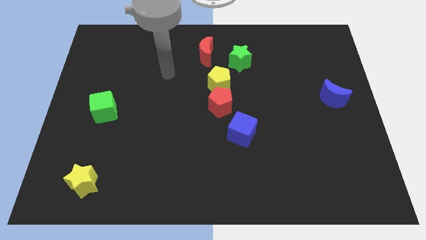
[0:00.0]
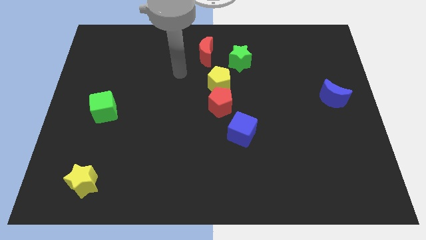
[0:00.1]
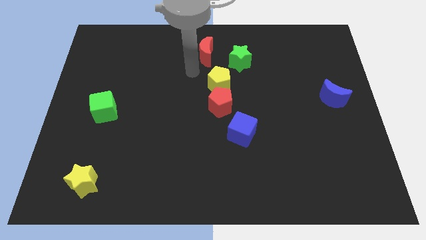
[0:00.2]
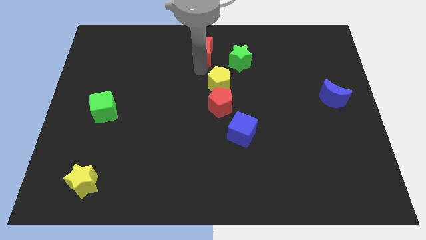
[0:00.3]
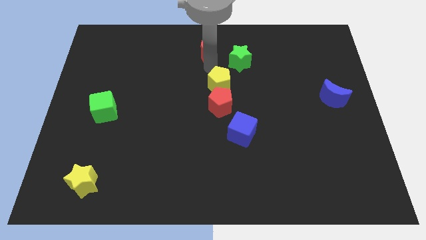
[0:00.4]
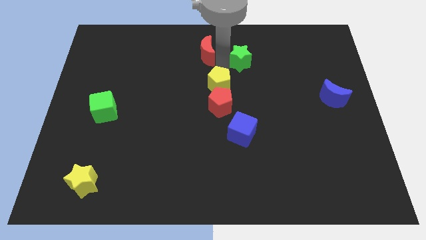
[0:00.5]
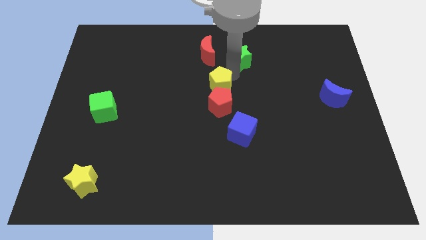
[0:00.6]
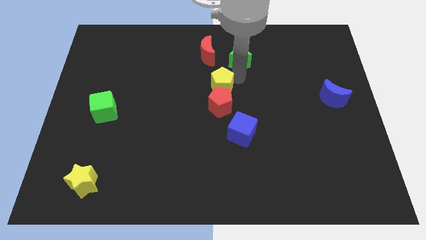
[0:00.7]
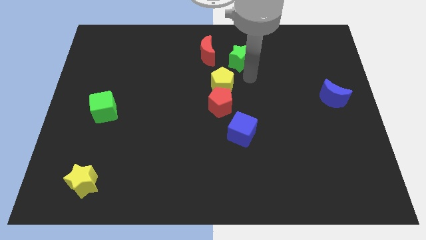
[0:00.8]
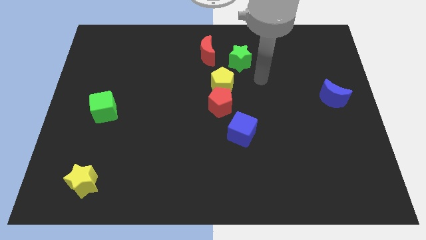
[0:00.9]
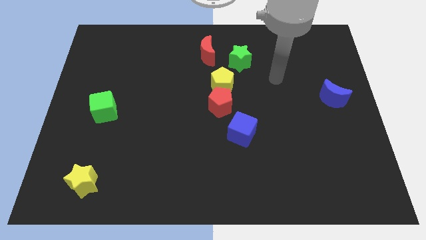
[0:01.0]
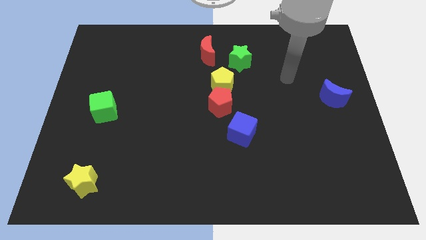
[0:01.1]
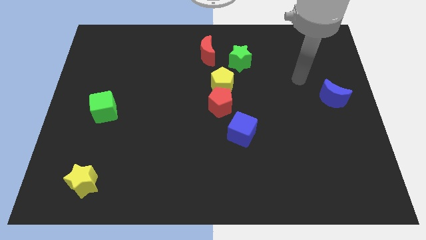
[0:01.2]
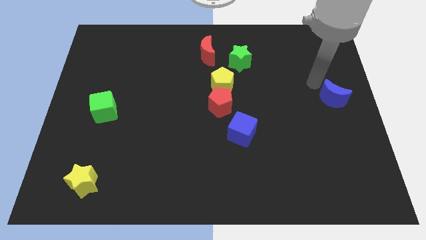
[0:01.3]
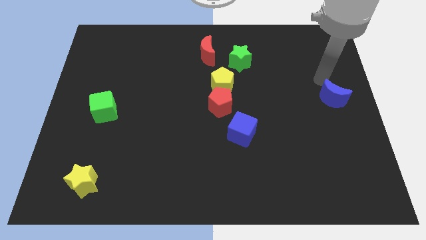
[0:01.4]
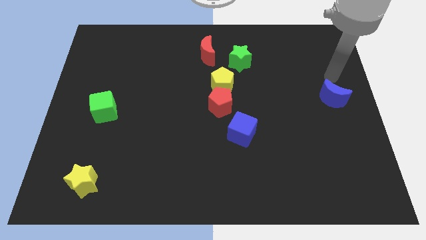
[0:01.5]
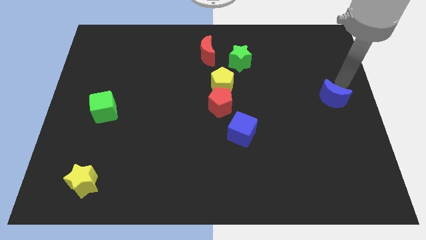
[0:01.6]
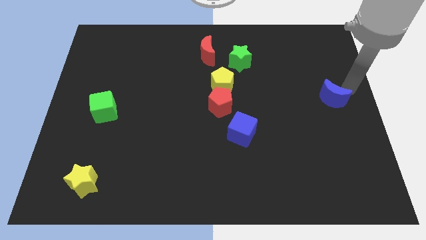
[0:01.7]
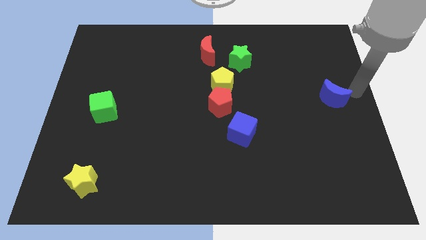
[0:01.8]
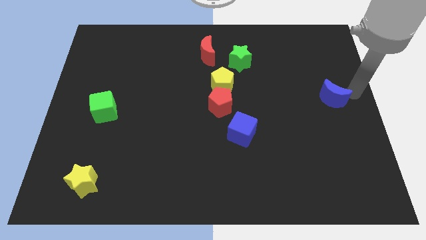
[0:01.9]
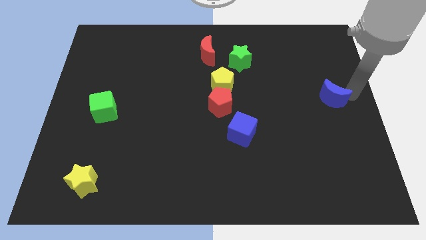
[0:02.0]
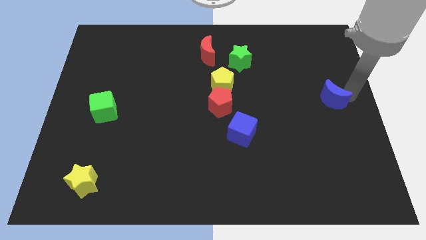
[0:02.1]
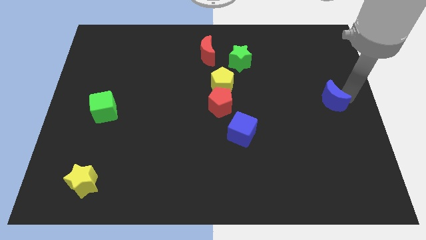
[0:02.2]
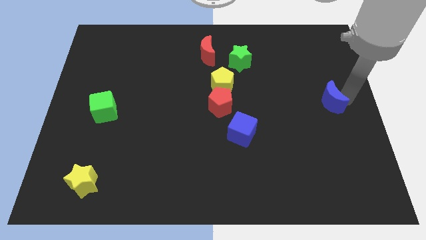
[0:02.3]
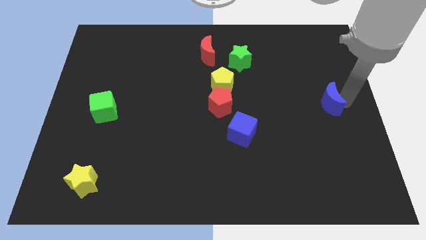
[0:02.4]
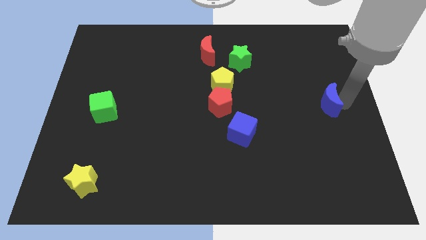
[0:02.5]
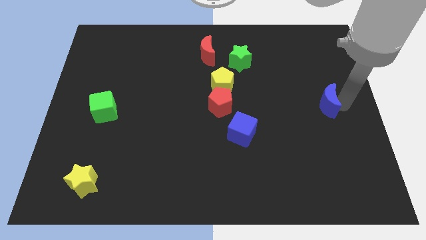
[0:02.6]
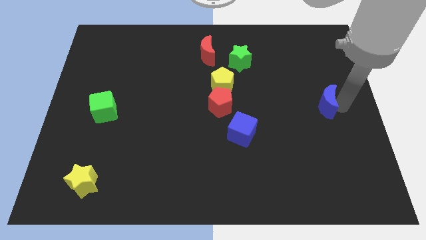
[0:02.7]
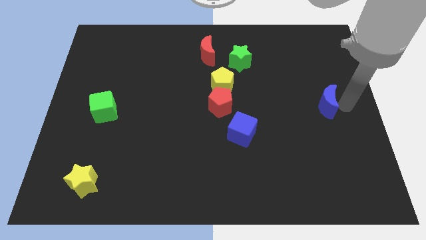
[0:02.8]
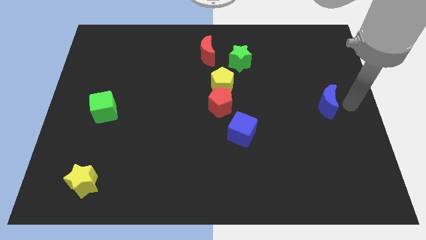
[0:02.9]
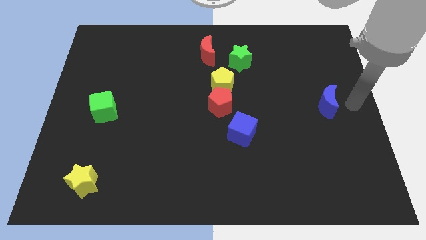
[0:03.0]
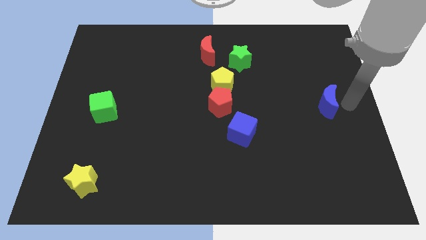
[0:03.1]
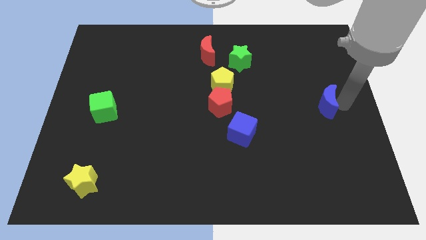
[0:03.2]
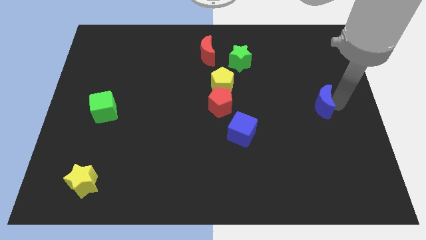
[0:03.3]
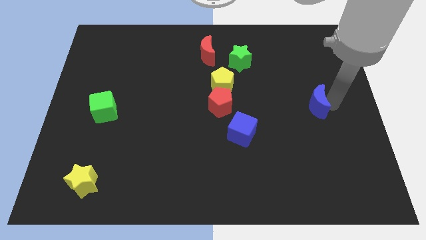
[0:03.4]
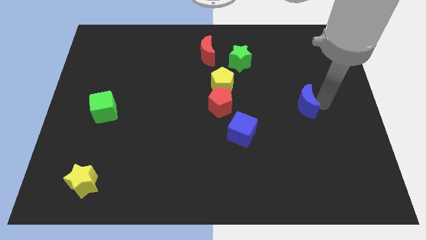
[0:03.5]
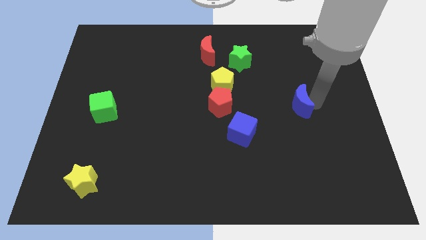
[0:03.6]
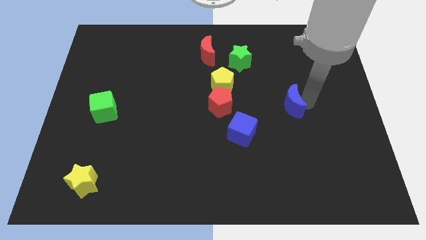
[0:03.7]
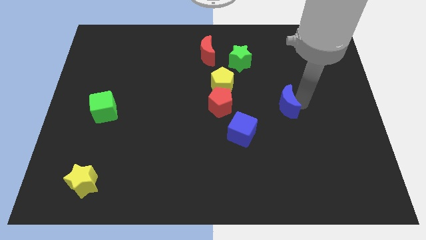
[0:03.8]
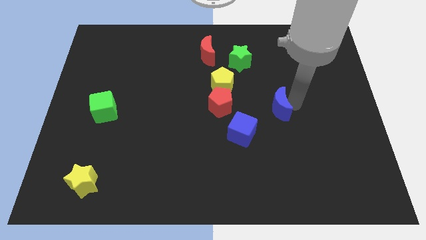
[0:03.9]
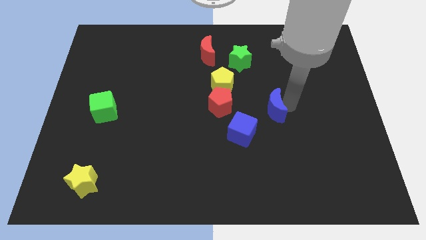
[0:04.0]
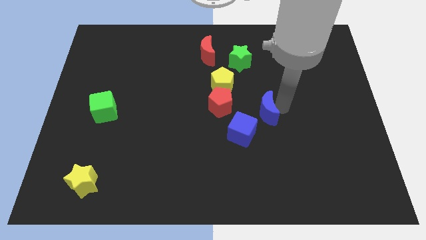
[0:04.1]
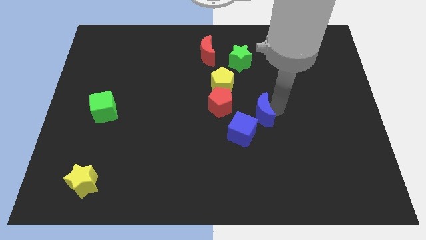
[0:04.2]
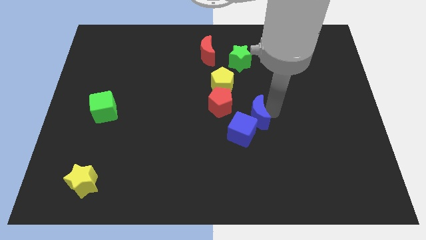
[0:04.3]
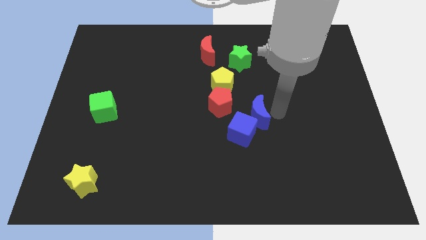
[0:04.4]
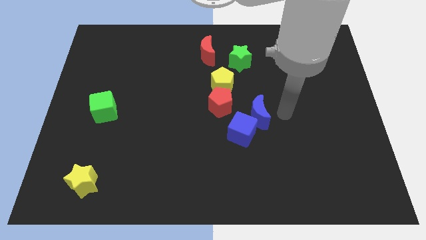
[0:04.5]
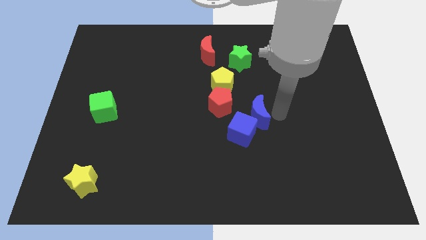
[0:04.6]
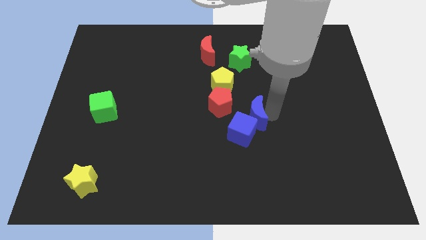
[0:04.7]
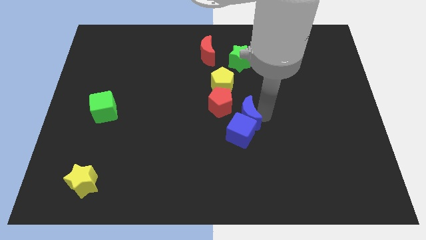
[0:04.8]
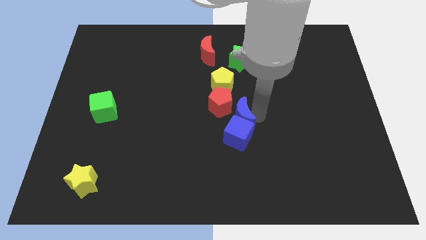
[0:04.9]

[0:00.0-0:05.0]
push the blue moon to the left

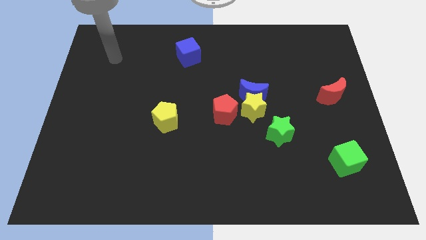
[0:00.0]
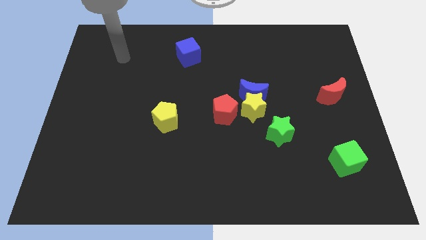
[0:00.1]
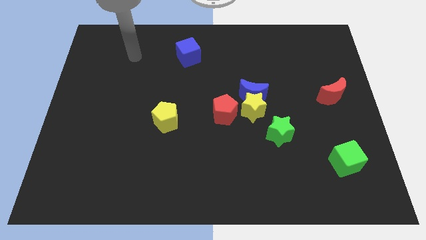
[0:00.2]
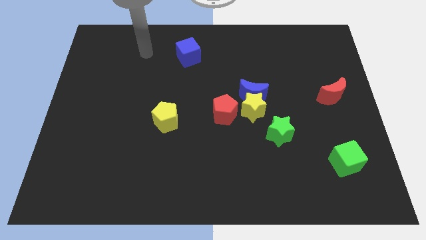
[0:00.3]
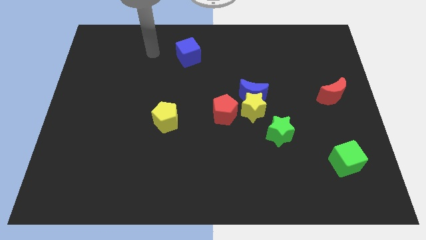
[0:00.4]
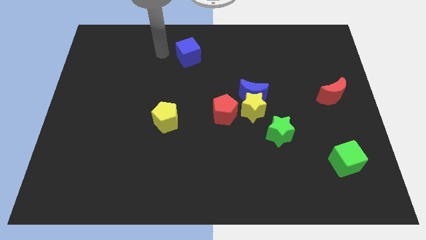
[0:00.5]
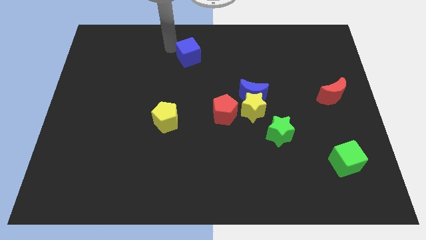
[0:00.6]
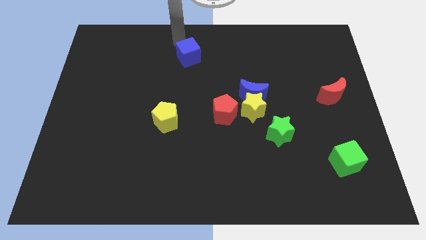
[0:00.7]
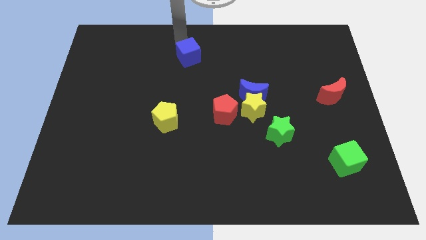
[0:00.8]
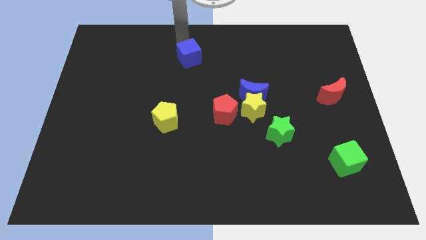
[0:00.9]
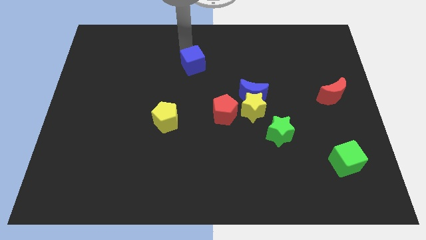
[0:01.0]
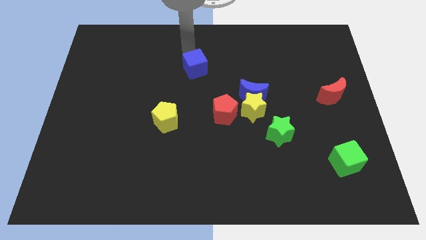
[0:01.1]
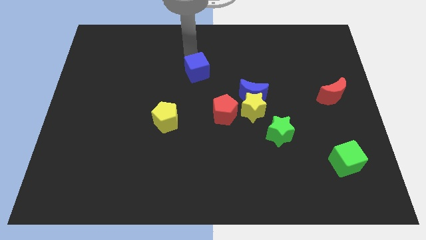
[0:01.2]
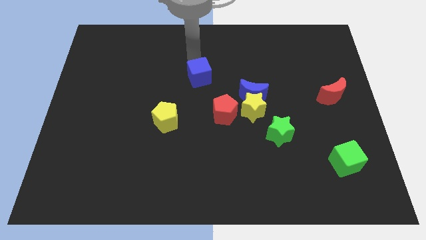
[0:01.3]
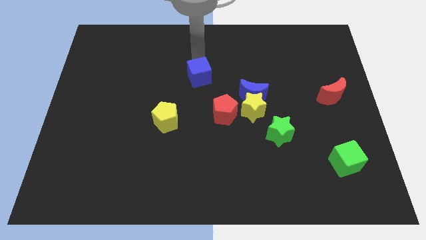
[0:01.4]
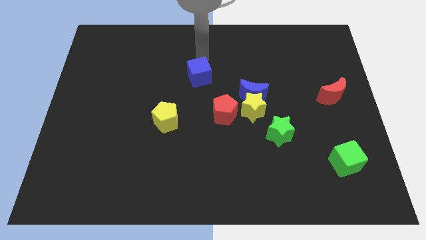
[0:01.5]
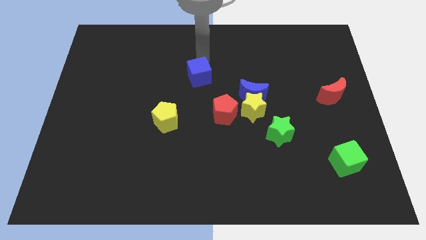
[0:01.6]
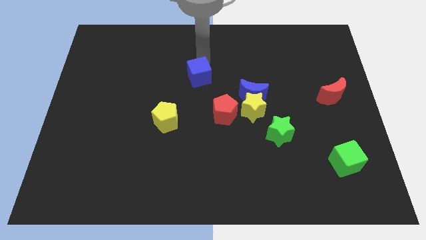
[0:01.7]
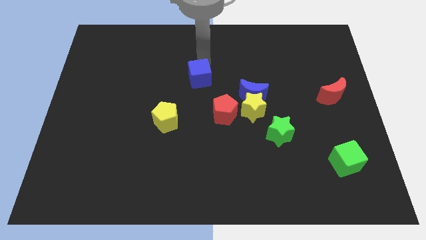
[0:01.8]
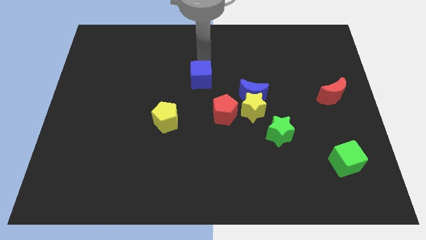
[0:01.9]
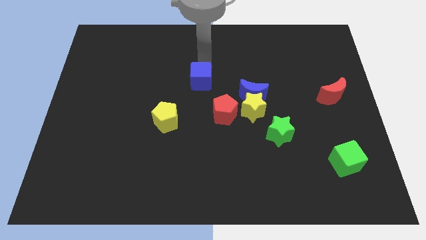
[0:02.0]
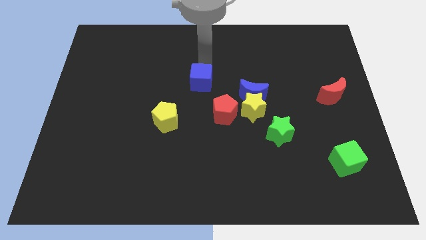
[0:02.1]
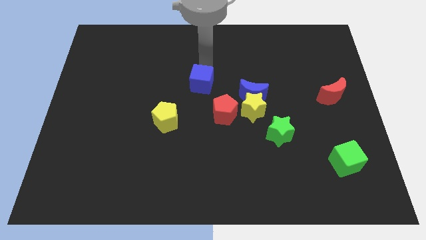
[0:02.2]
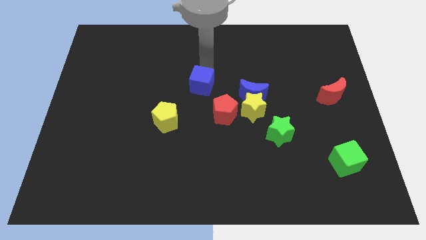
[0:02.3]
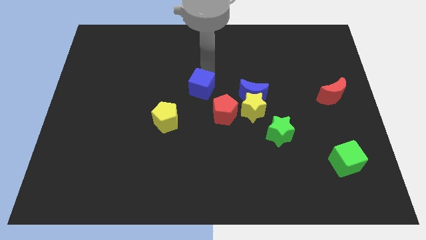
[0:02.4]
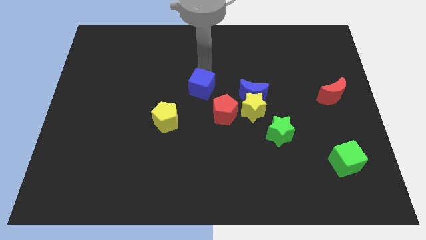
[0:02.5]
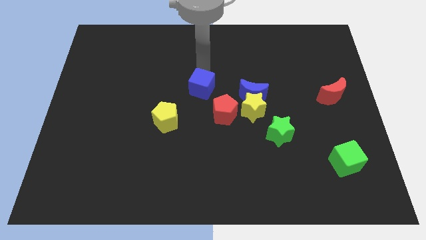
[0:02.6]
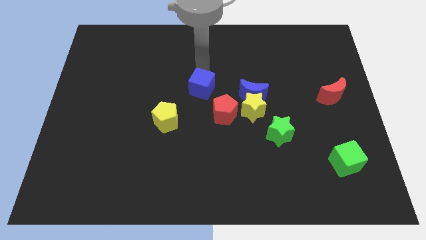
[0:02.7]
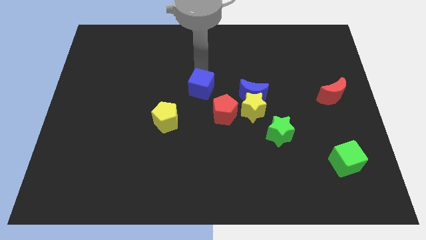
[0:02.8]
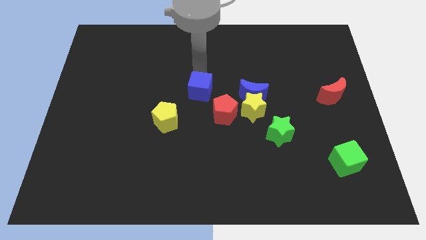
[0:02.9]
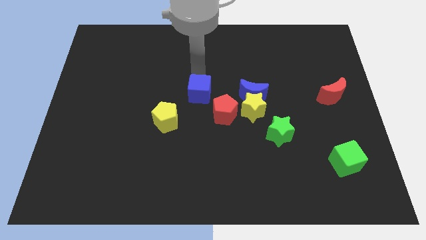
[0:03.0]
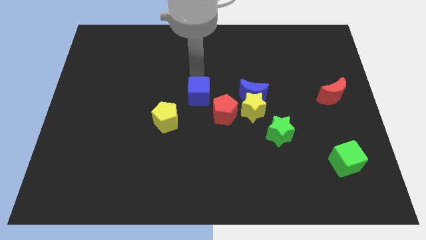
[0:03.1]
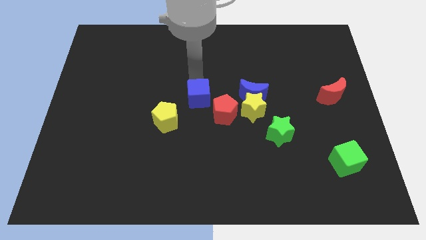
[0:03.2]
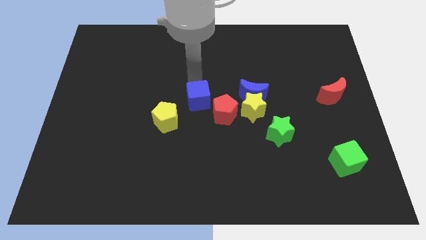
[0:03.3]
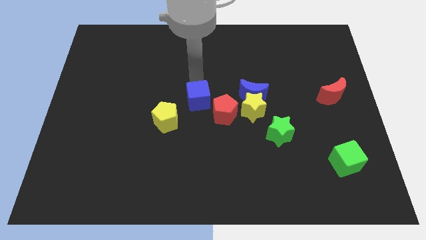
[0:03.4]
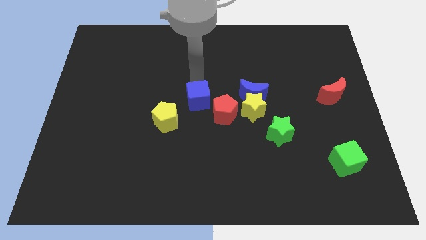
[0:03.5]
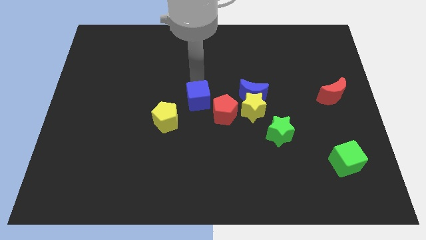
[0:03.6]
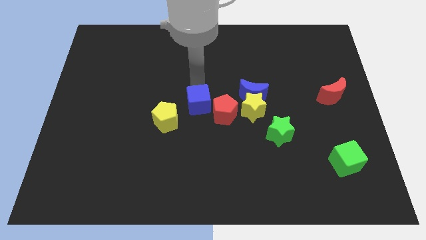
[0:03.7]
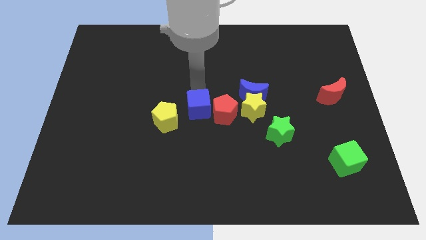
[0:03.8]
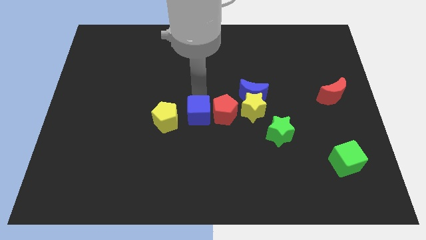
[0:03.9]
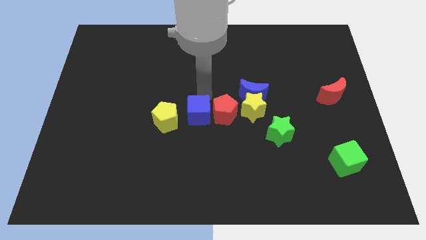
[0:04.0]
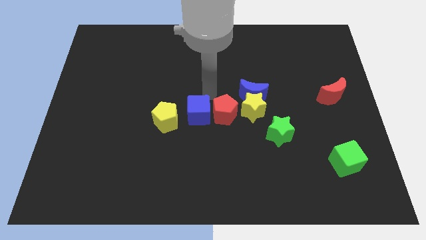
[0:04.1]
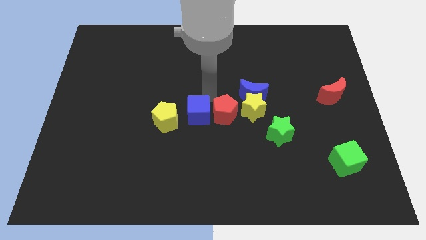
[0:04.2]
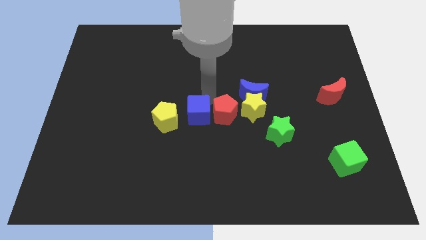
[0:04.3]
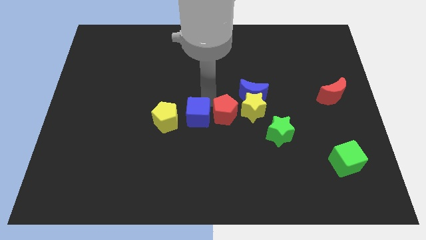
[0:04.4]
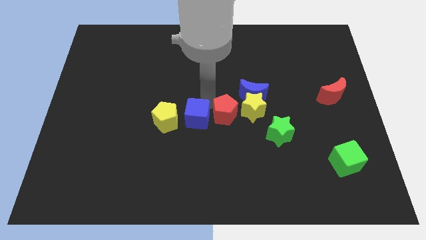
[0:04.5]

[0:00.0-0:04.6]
slide the blue cube down
